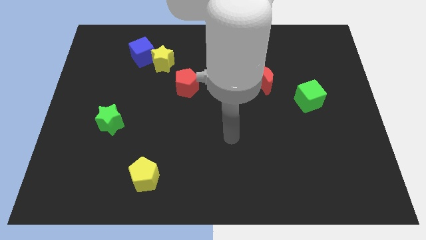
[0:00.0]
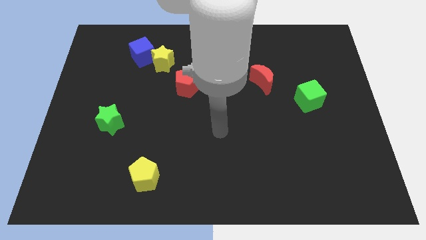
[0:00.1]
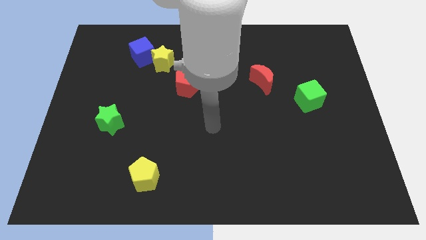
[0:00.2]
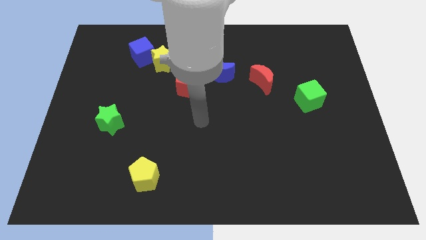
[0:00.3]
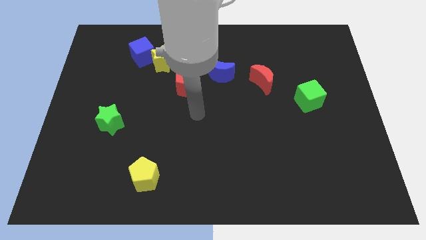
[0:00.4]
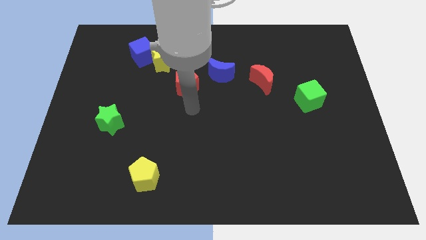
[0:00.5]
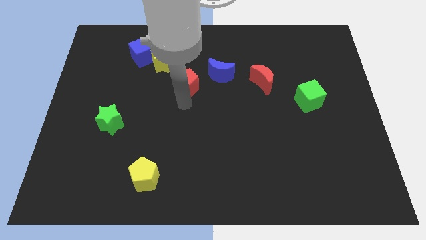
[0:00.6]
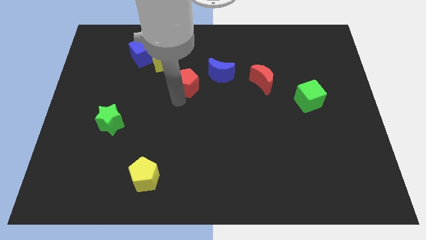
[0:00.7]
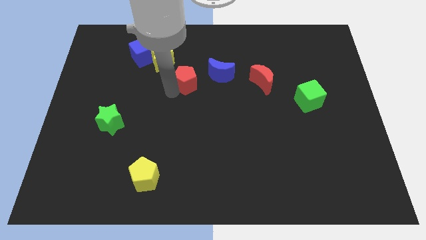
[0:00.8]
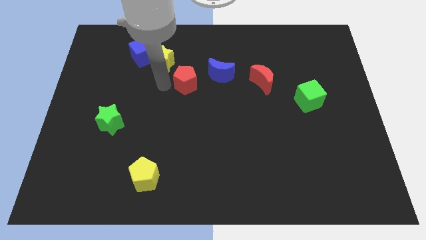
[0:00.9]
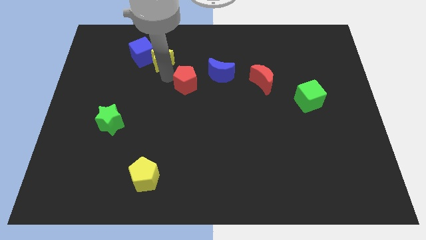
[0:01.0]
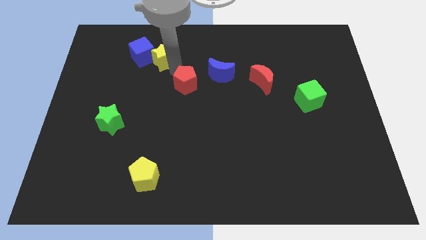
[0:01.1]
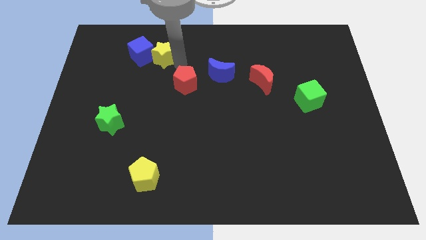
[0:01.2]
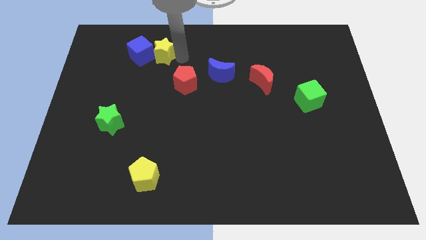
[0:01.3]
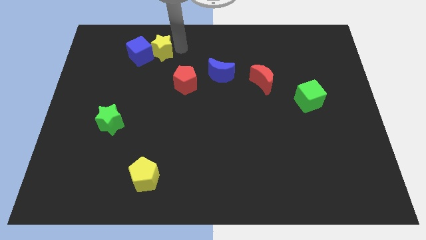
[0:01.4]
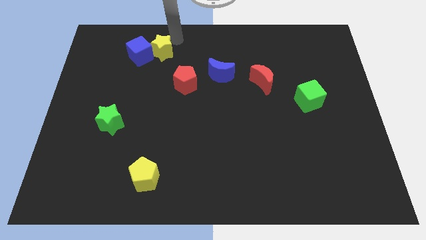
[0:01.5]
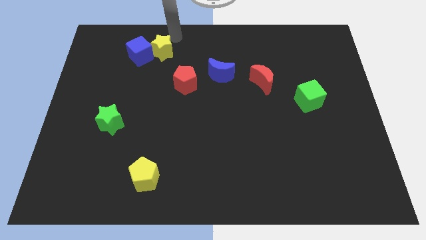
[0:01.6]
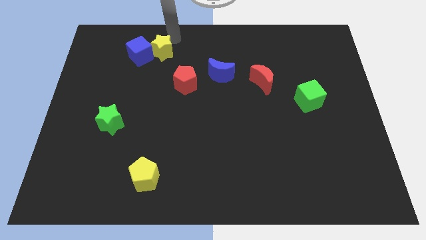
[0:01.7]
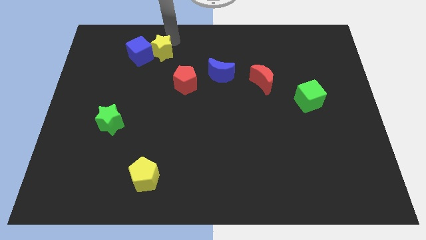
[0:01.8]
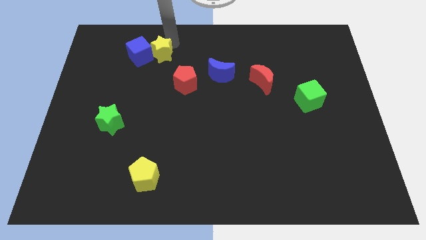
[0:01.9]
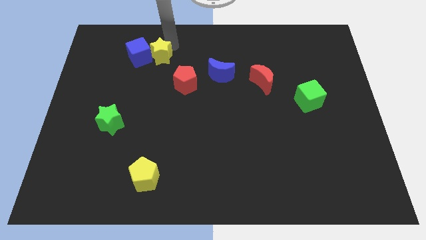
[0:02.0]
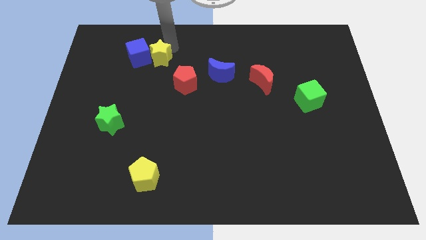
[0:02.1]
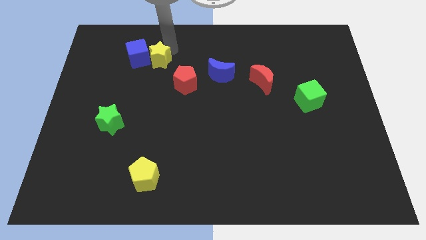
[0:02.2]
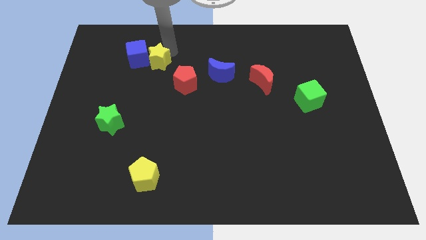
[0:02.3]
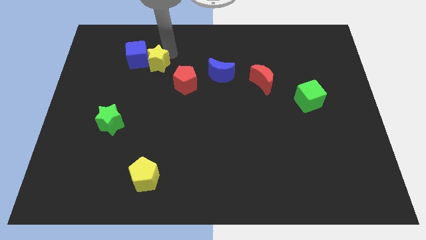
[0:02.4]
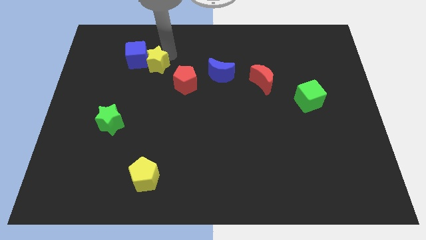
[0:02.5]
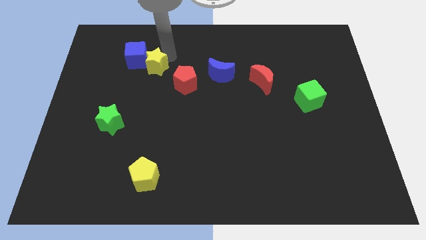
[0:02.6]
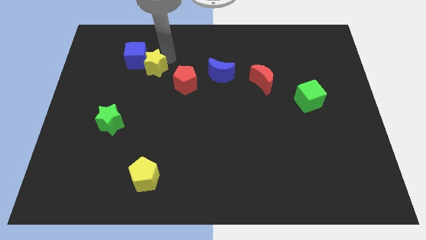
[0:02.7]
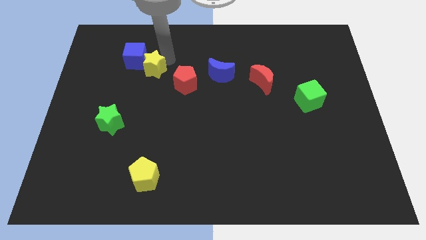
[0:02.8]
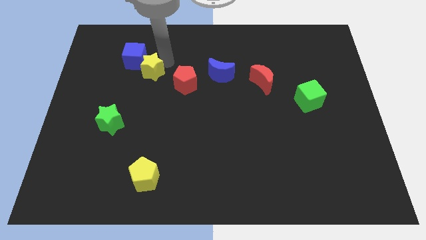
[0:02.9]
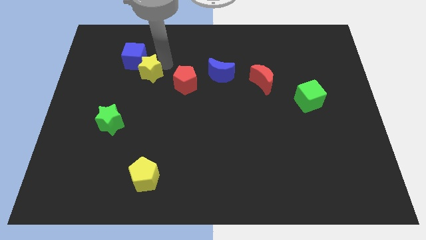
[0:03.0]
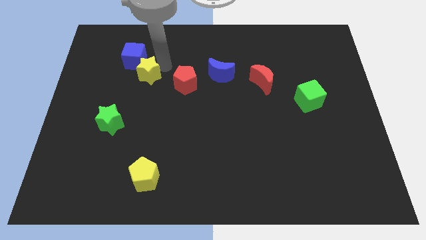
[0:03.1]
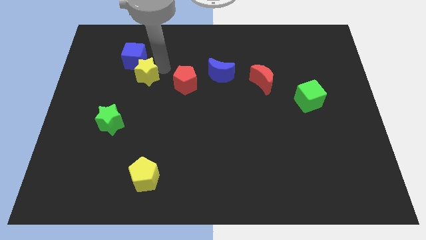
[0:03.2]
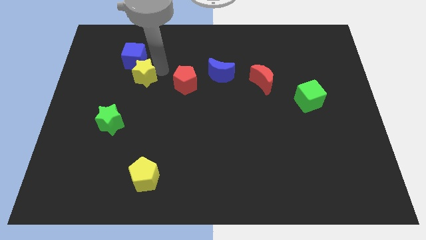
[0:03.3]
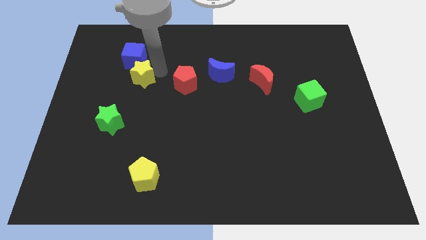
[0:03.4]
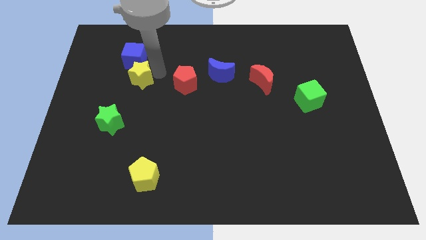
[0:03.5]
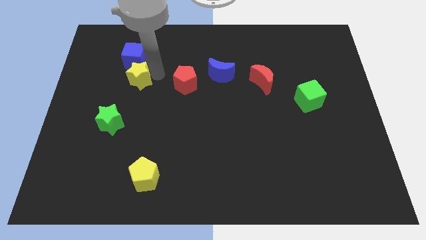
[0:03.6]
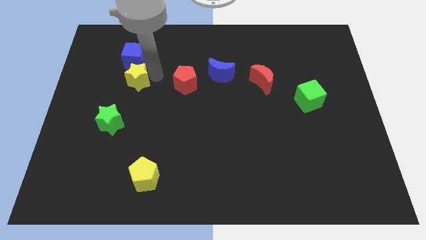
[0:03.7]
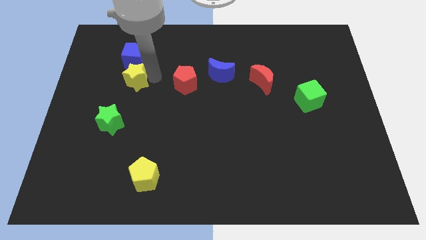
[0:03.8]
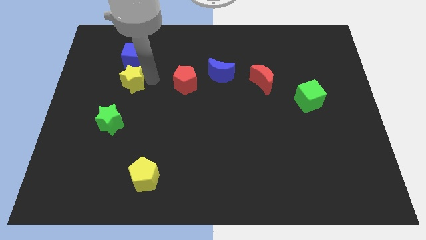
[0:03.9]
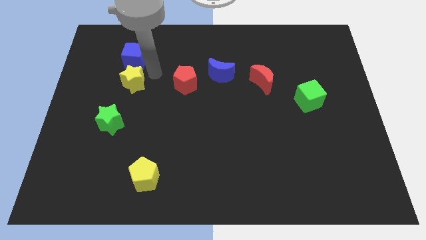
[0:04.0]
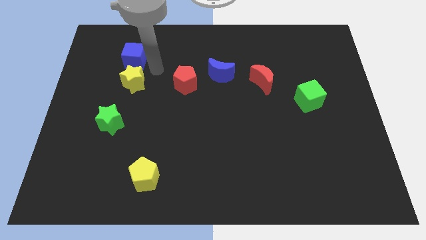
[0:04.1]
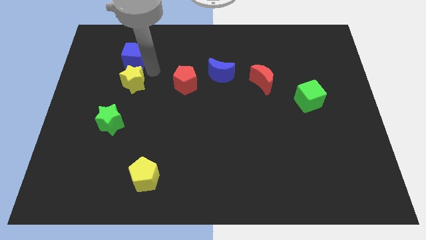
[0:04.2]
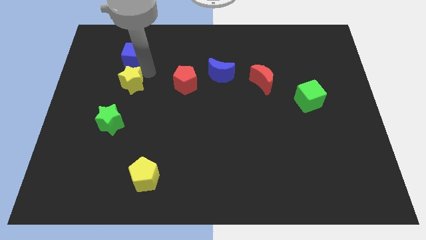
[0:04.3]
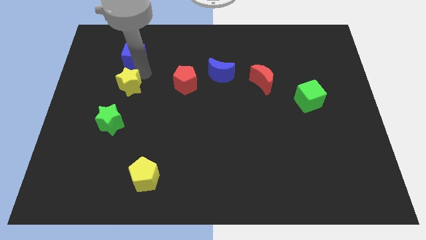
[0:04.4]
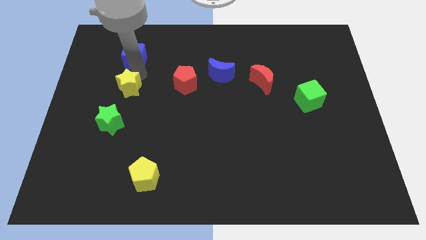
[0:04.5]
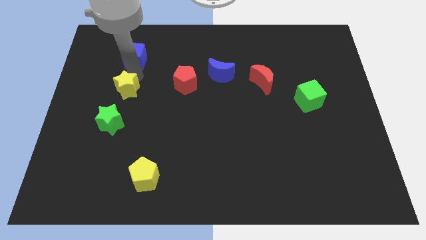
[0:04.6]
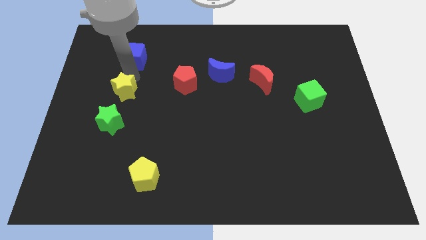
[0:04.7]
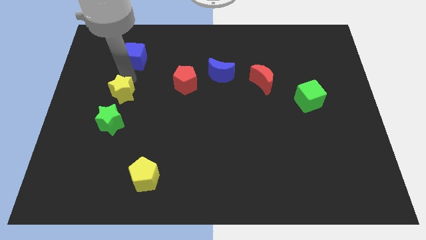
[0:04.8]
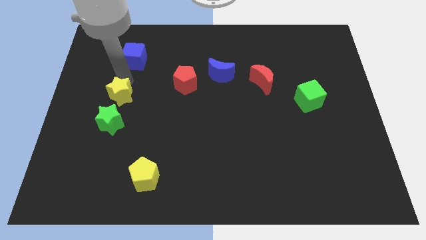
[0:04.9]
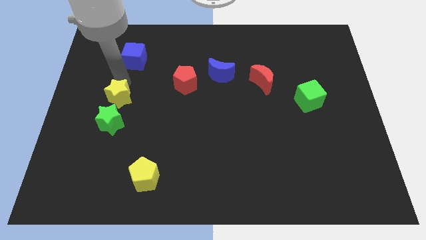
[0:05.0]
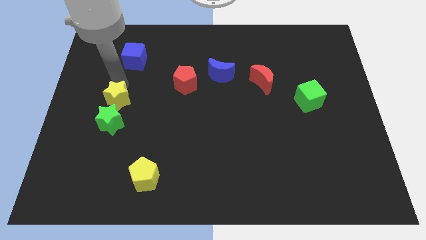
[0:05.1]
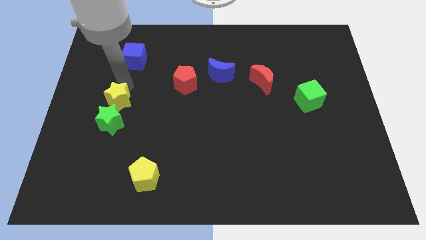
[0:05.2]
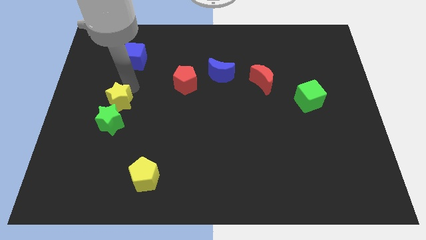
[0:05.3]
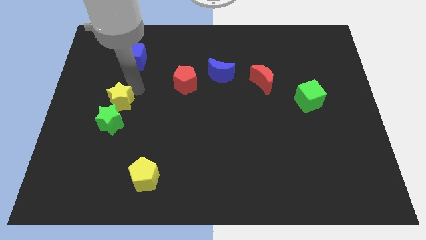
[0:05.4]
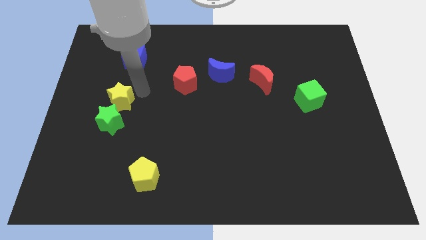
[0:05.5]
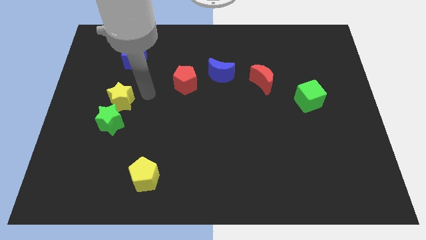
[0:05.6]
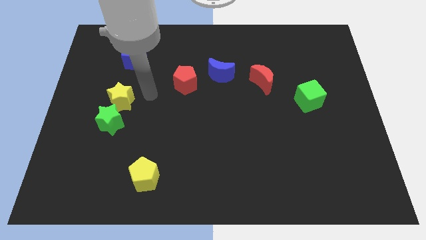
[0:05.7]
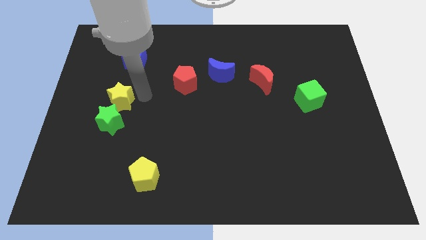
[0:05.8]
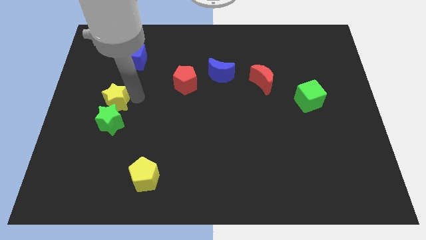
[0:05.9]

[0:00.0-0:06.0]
put the yellow star to the top left side of the green star
